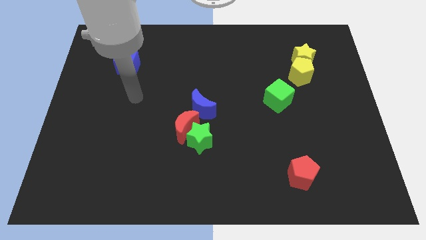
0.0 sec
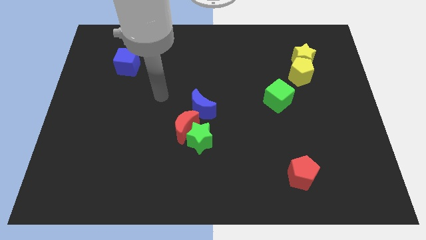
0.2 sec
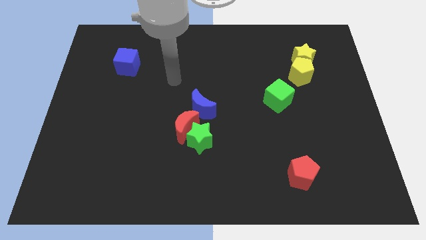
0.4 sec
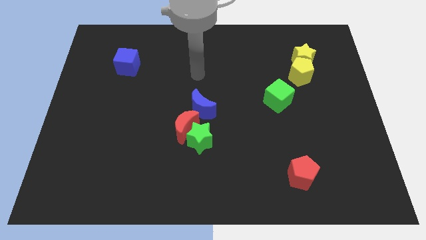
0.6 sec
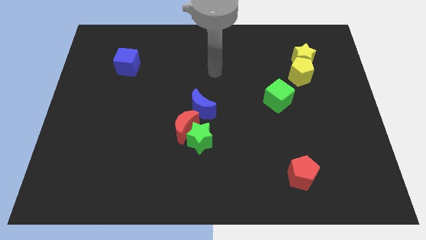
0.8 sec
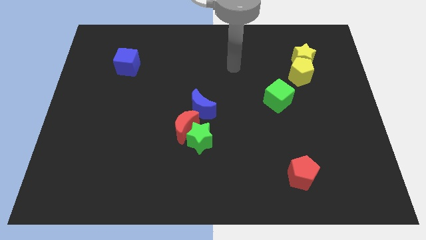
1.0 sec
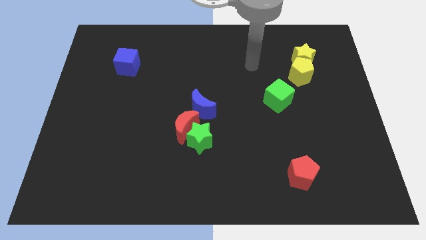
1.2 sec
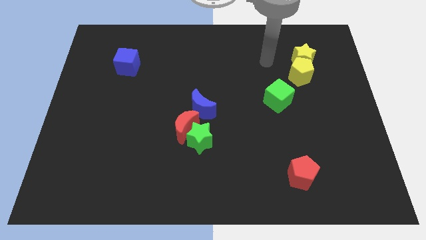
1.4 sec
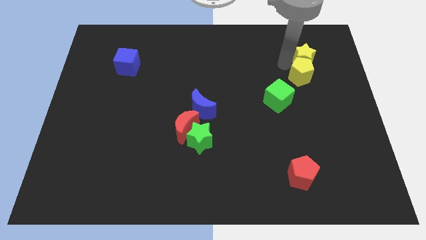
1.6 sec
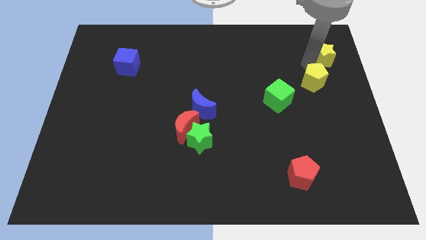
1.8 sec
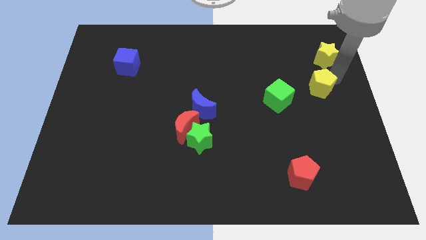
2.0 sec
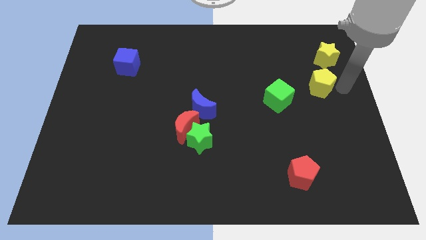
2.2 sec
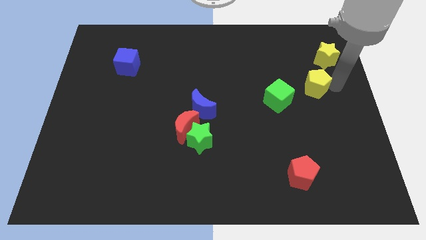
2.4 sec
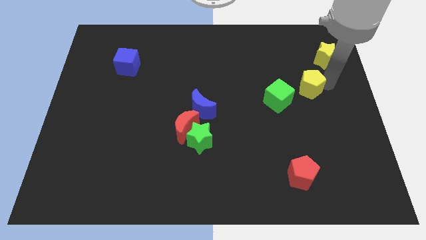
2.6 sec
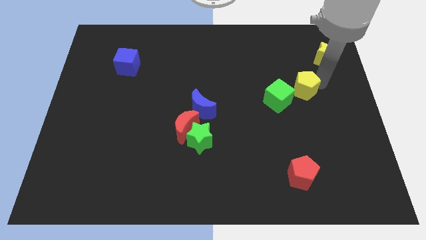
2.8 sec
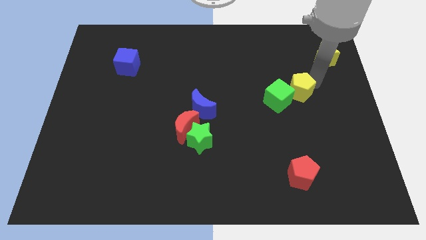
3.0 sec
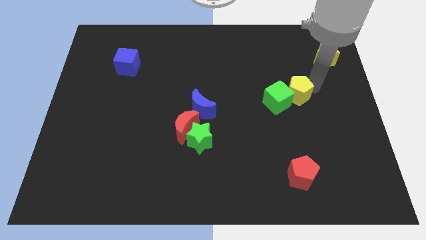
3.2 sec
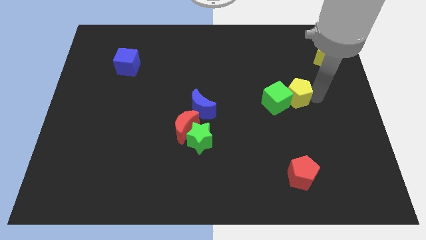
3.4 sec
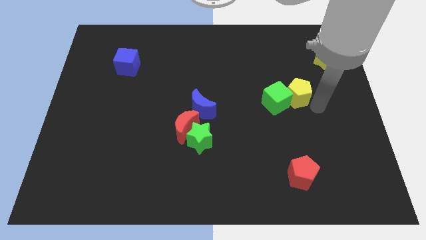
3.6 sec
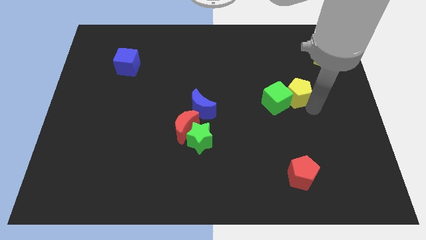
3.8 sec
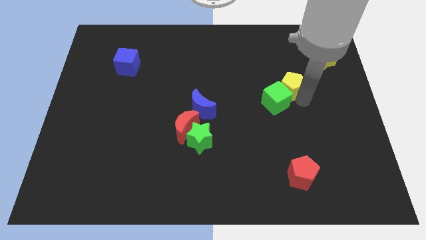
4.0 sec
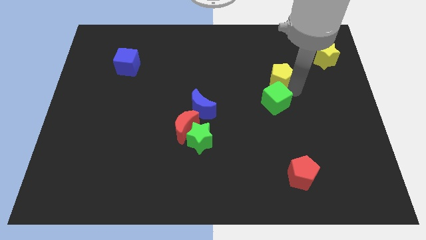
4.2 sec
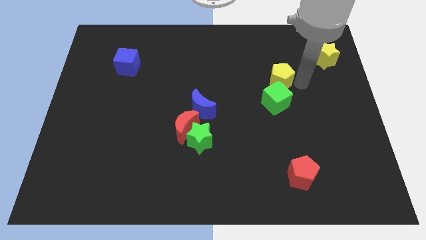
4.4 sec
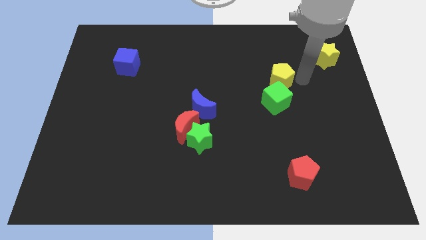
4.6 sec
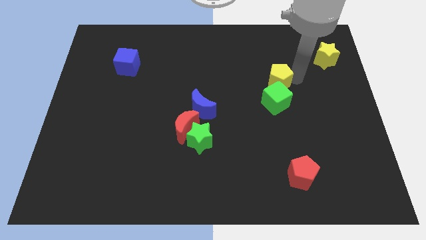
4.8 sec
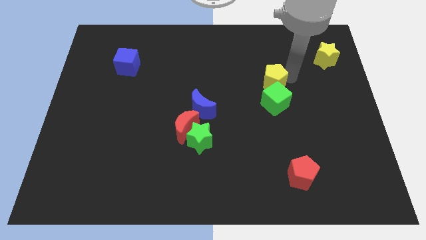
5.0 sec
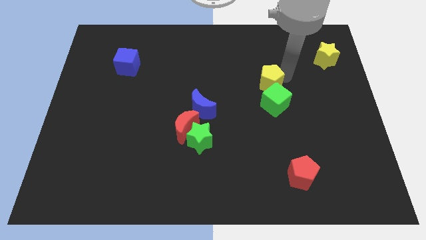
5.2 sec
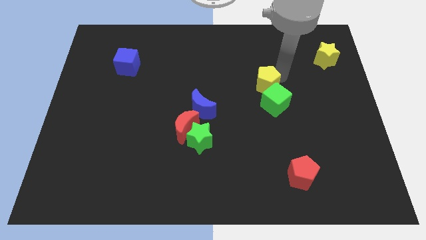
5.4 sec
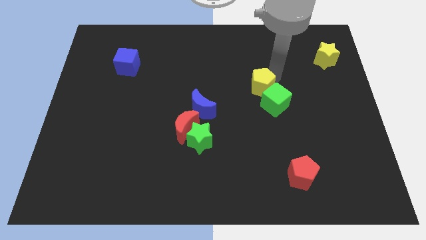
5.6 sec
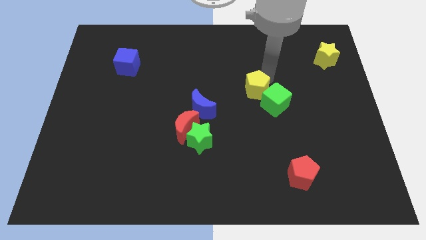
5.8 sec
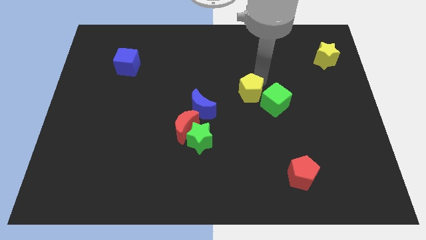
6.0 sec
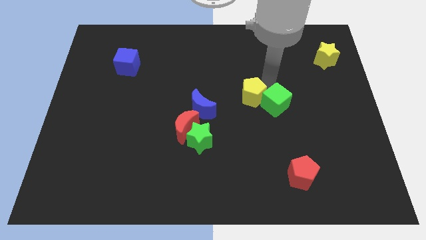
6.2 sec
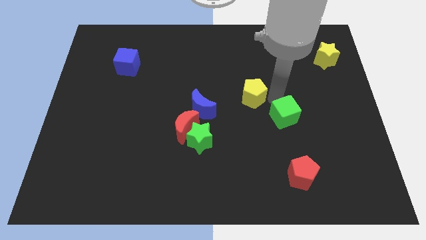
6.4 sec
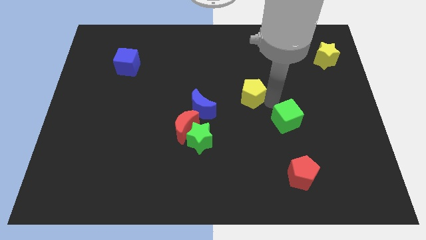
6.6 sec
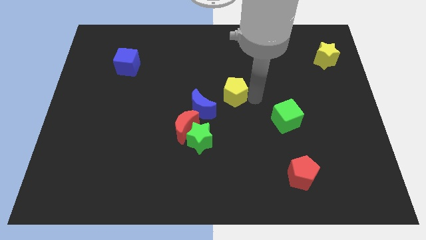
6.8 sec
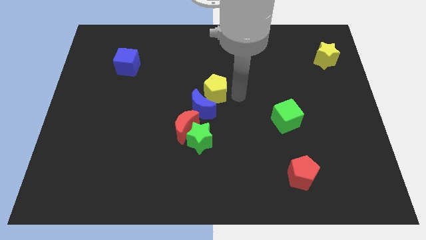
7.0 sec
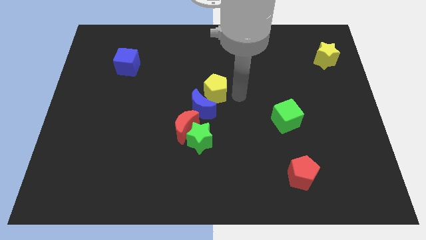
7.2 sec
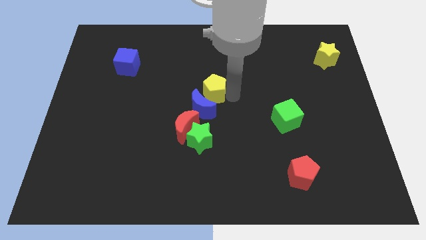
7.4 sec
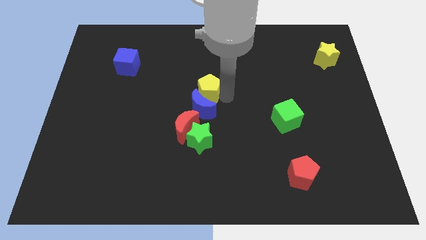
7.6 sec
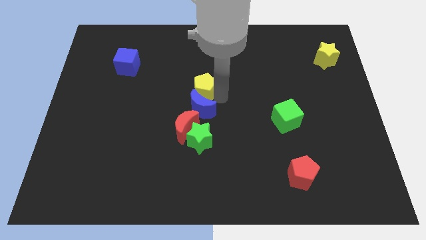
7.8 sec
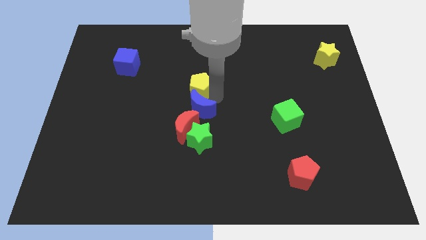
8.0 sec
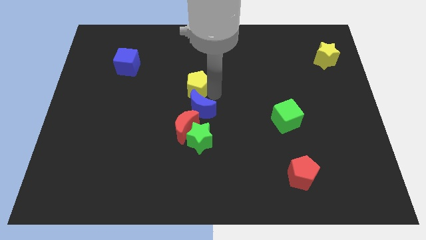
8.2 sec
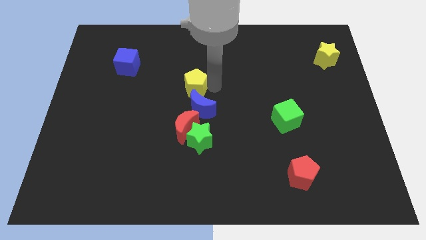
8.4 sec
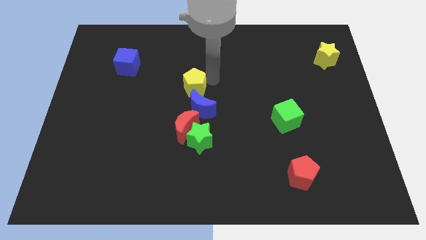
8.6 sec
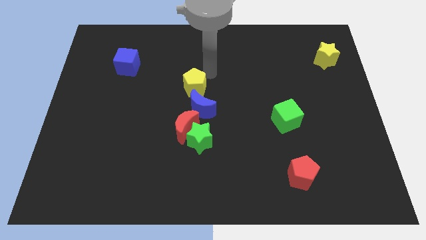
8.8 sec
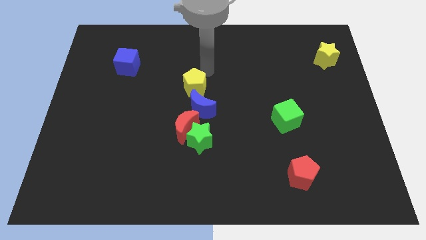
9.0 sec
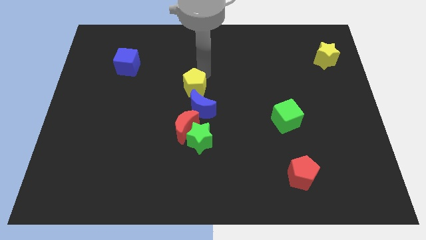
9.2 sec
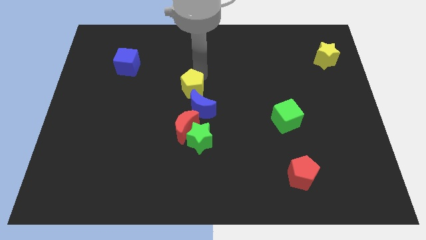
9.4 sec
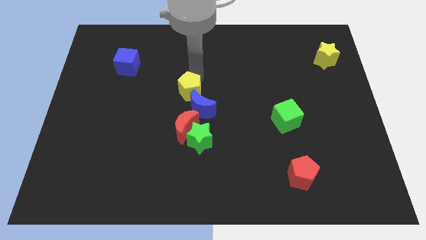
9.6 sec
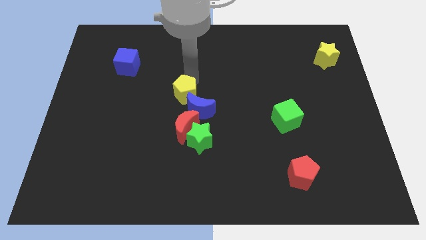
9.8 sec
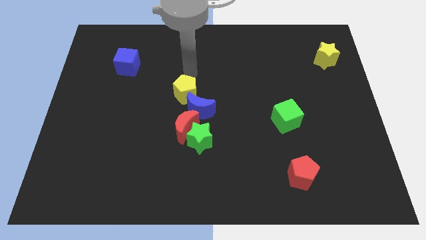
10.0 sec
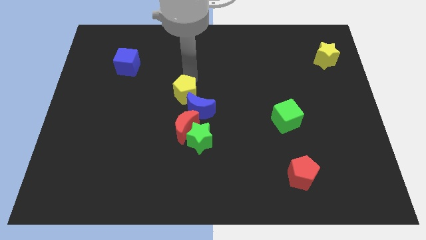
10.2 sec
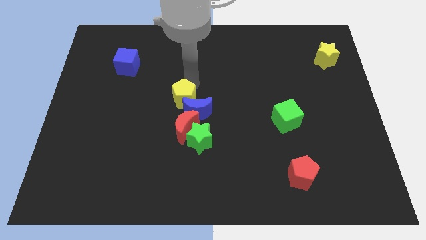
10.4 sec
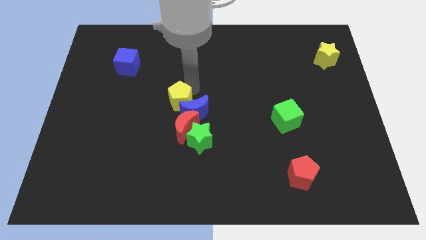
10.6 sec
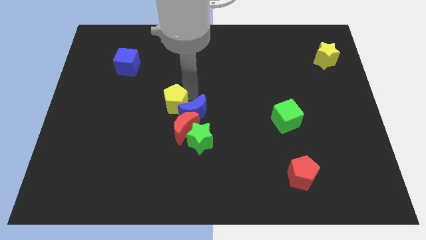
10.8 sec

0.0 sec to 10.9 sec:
push the yellow pentagon diagonally up and to the left of the green star
